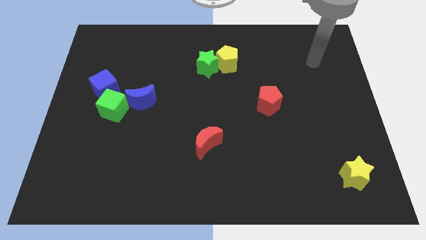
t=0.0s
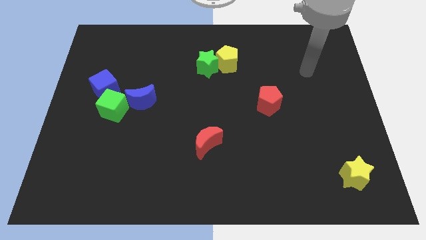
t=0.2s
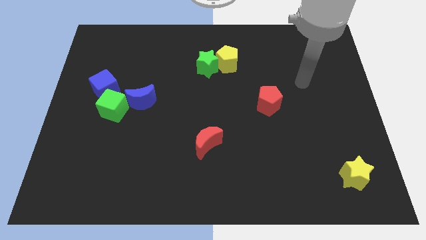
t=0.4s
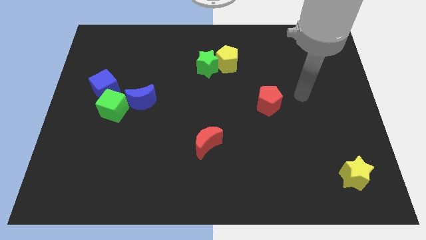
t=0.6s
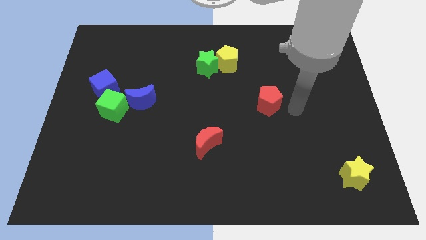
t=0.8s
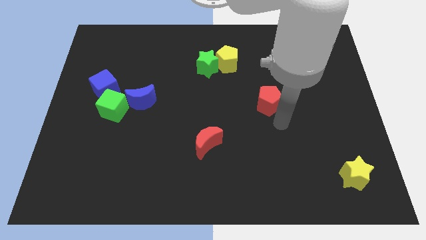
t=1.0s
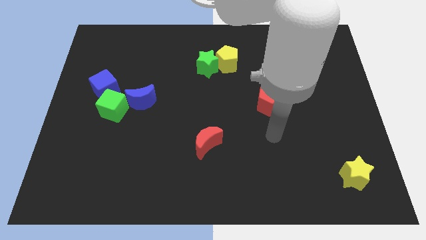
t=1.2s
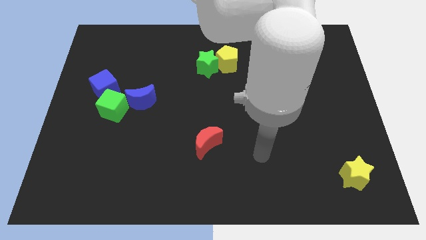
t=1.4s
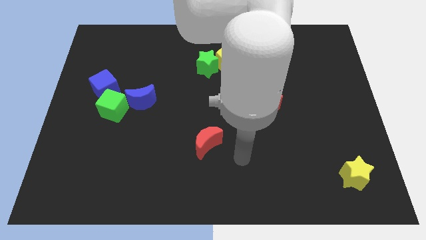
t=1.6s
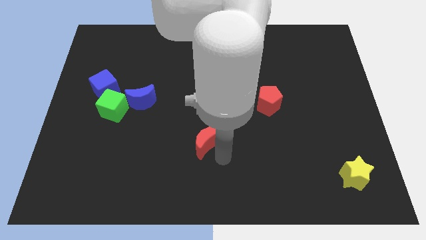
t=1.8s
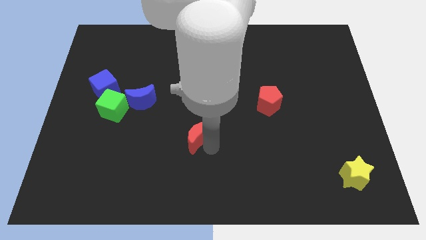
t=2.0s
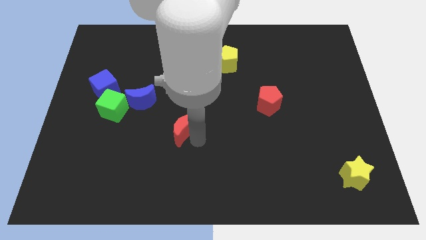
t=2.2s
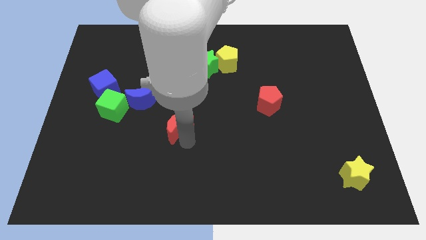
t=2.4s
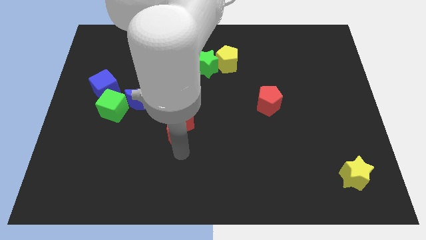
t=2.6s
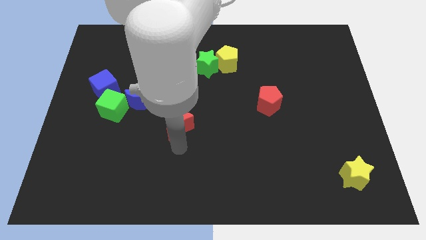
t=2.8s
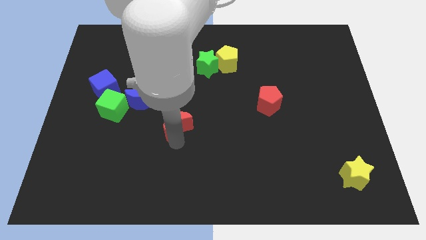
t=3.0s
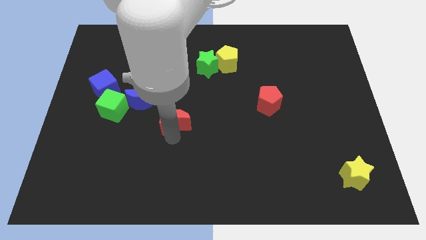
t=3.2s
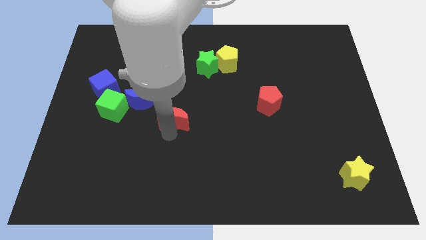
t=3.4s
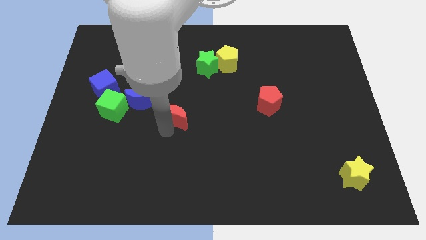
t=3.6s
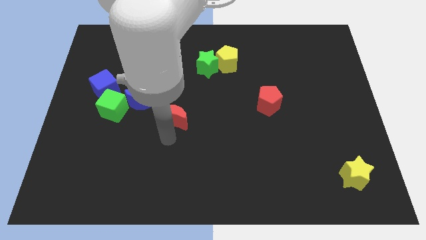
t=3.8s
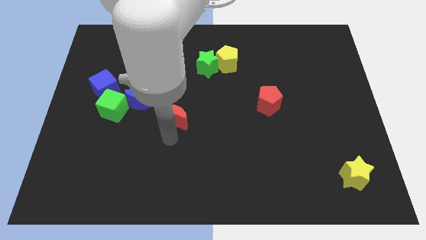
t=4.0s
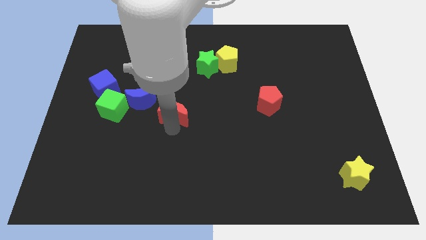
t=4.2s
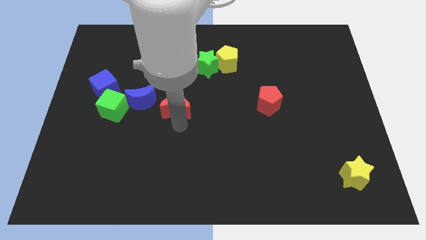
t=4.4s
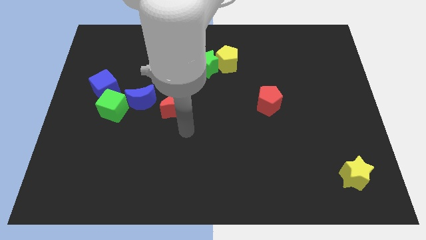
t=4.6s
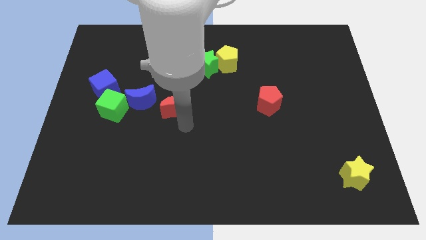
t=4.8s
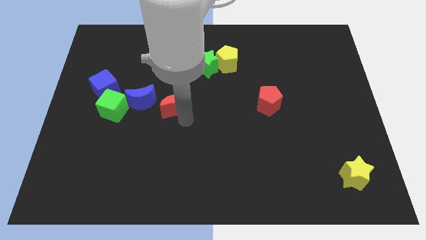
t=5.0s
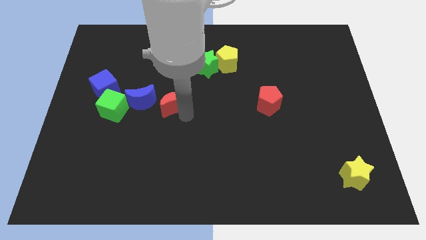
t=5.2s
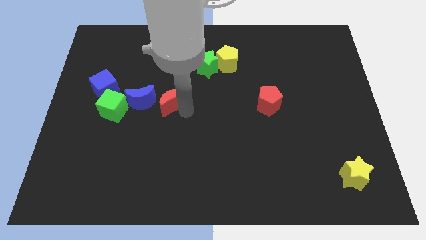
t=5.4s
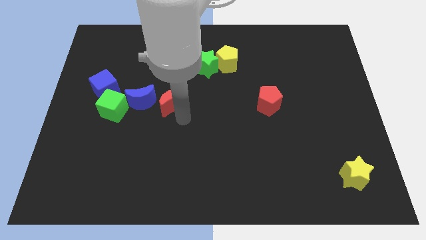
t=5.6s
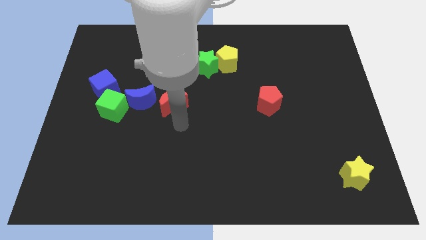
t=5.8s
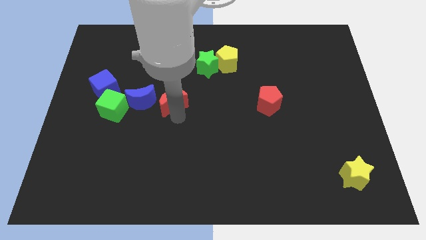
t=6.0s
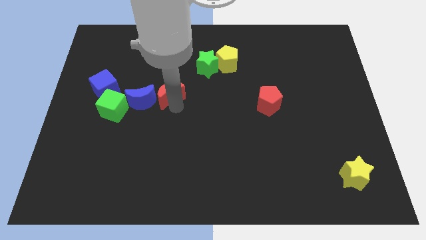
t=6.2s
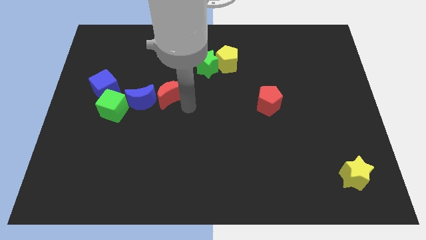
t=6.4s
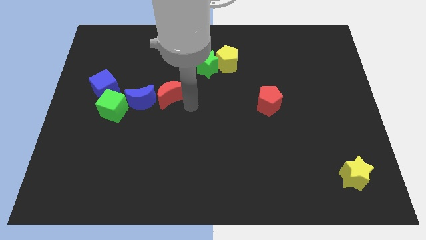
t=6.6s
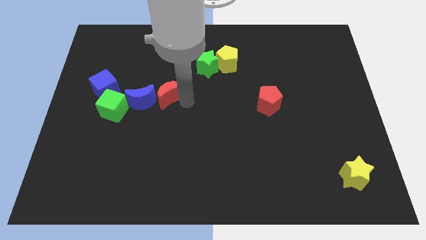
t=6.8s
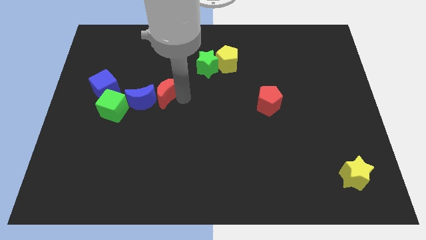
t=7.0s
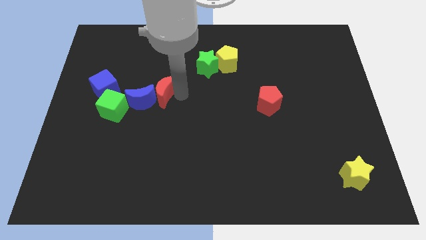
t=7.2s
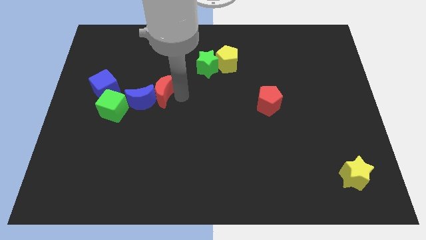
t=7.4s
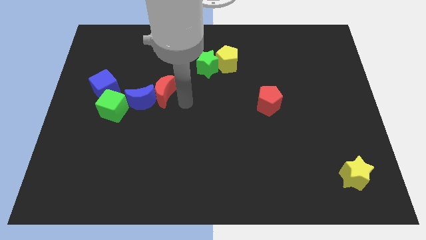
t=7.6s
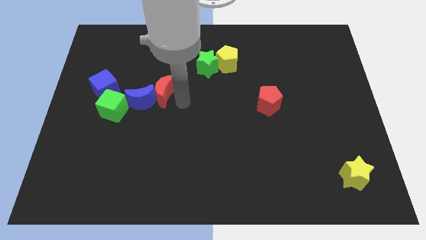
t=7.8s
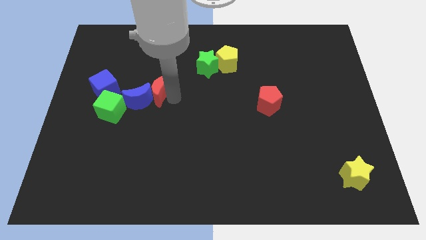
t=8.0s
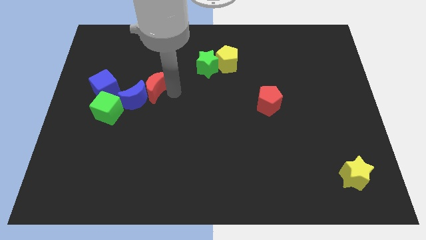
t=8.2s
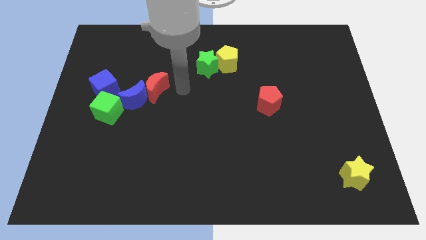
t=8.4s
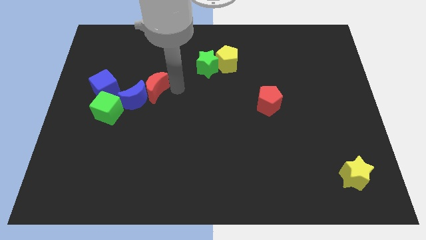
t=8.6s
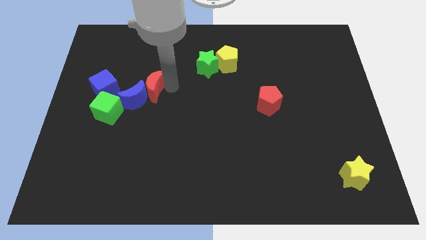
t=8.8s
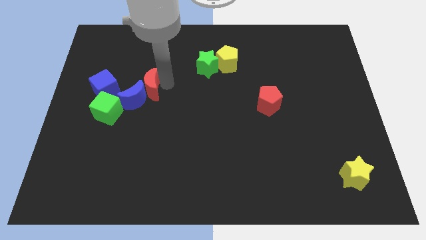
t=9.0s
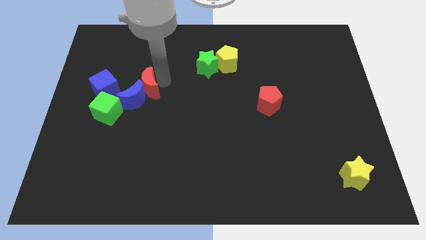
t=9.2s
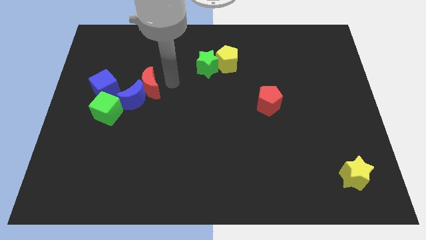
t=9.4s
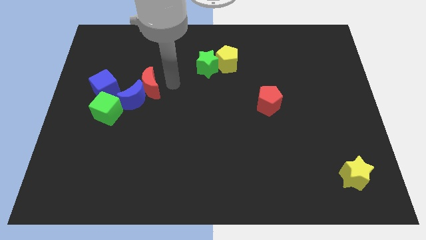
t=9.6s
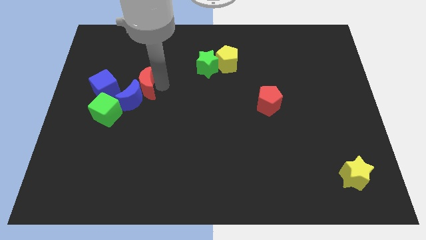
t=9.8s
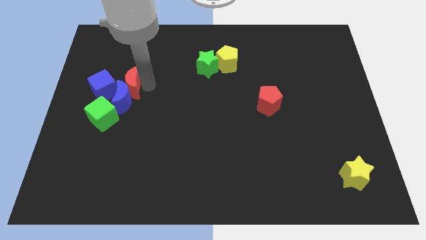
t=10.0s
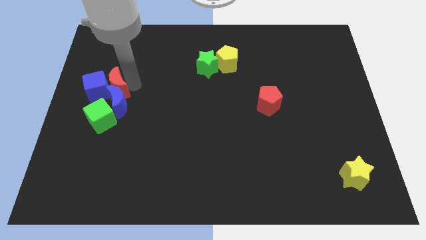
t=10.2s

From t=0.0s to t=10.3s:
slide the red moon to the blue cube

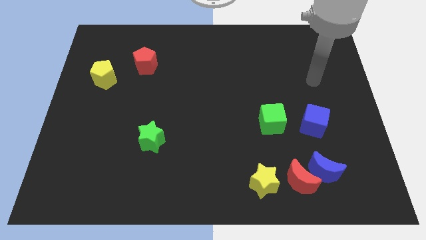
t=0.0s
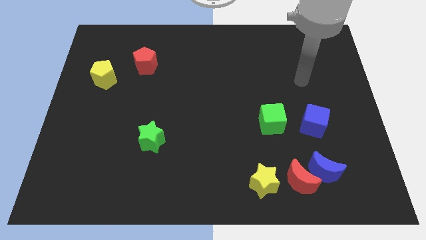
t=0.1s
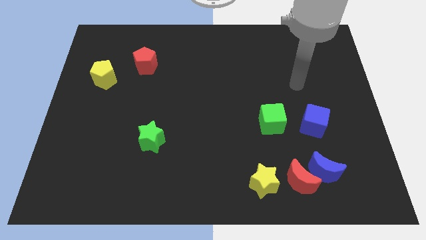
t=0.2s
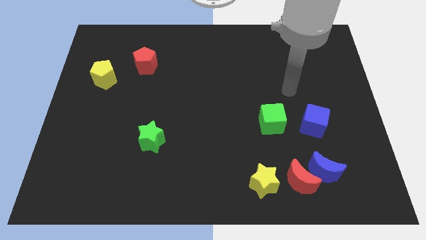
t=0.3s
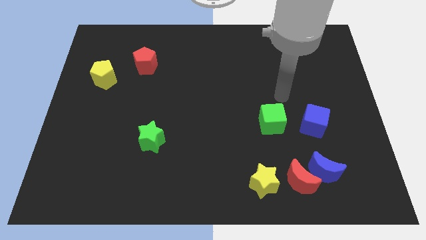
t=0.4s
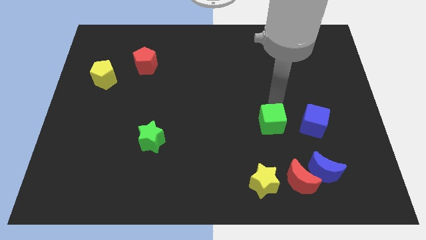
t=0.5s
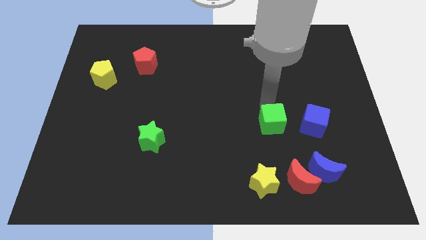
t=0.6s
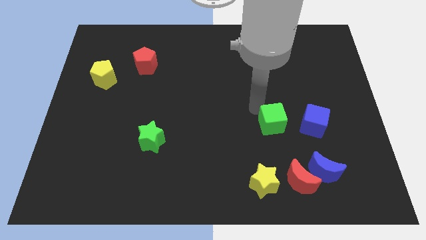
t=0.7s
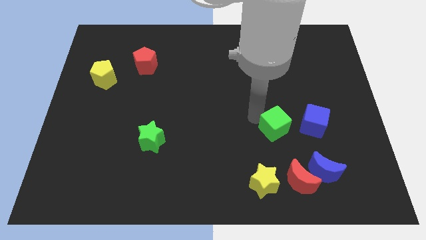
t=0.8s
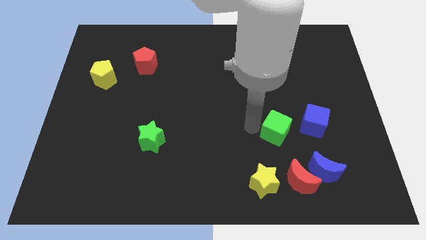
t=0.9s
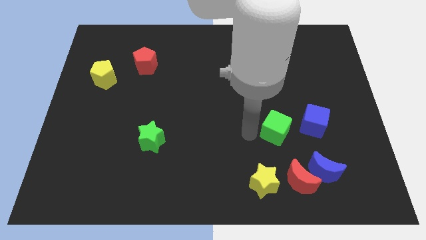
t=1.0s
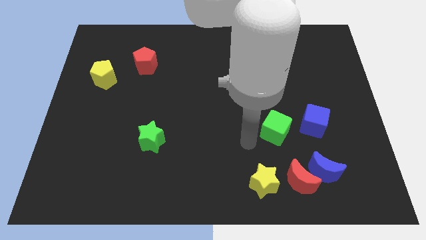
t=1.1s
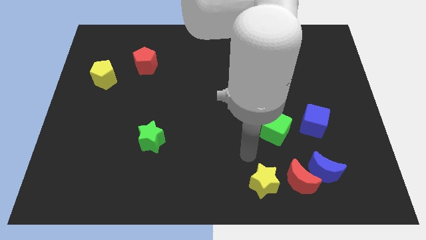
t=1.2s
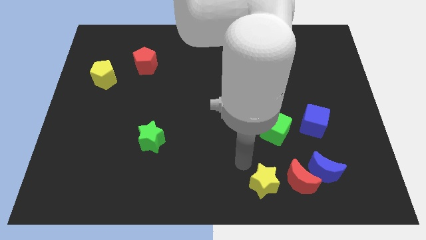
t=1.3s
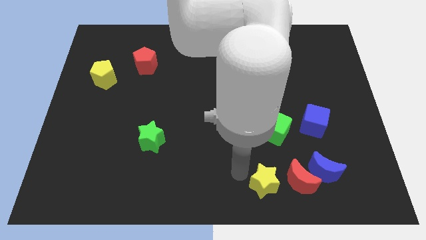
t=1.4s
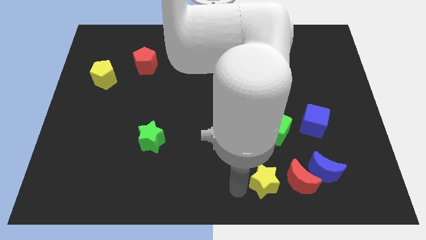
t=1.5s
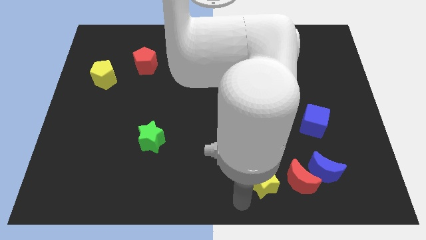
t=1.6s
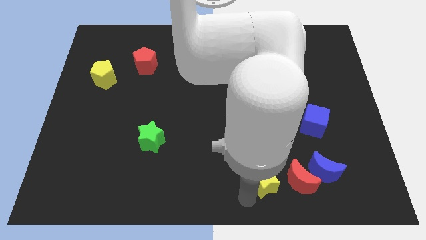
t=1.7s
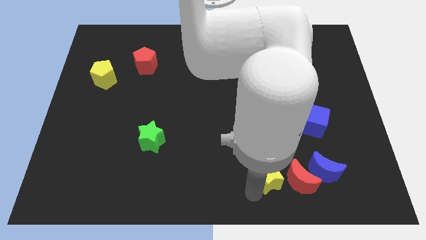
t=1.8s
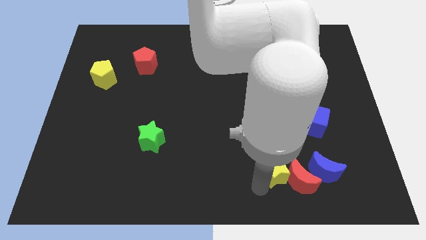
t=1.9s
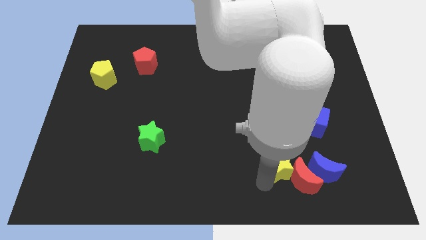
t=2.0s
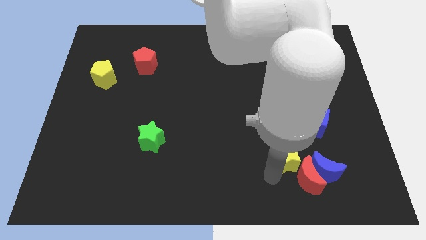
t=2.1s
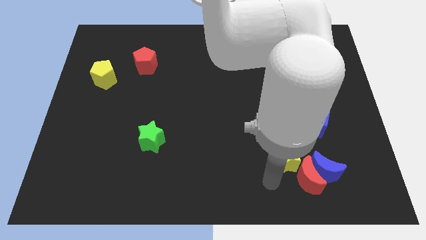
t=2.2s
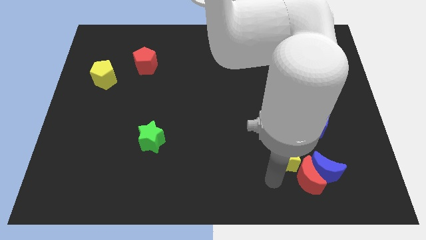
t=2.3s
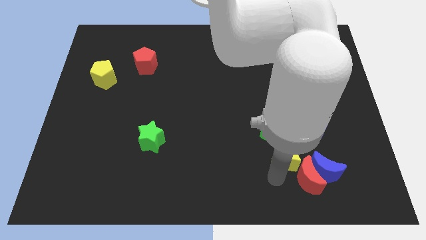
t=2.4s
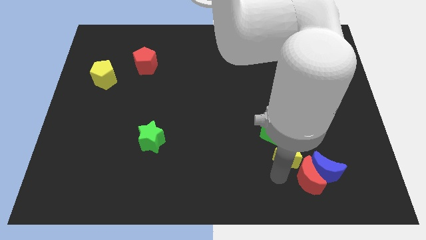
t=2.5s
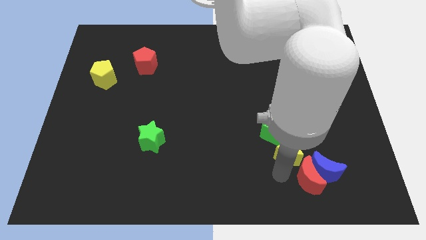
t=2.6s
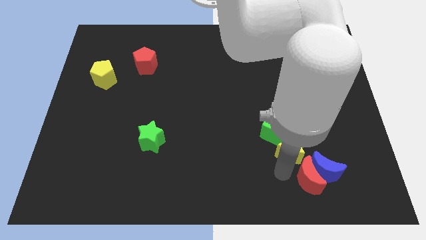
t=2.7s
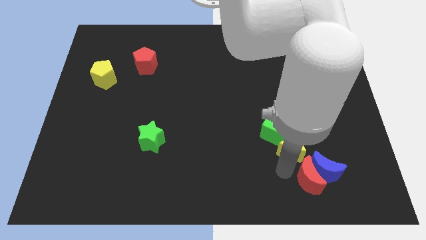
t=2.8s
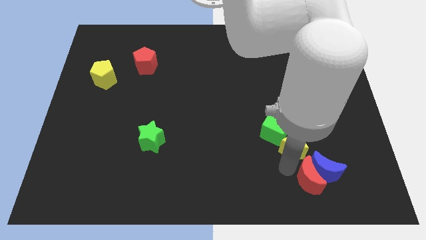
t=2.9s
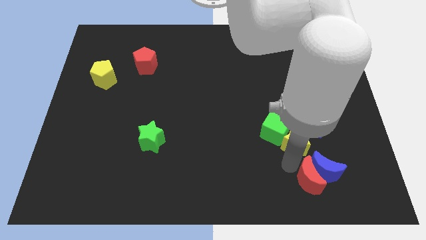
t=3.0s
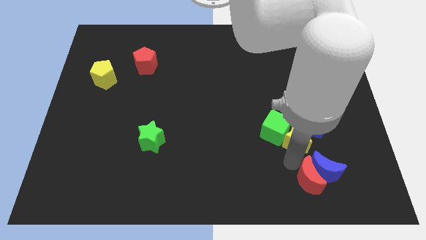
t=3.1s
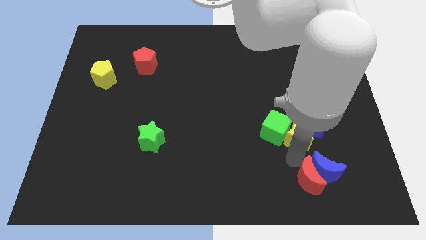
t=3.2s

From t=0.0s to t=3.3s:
put the yellow star towards the blue cube
